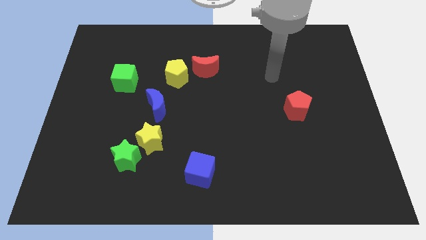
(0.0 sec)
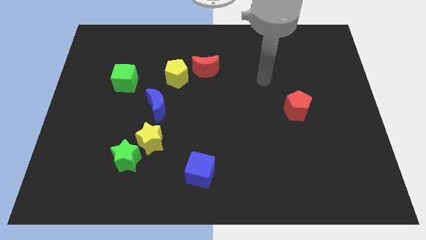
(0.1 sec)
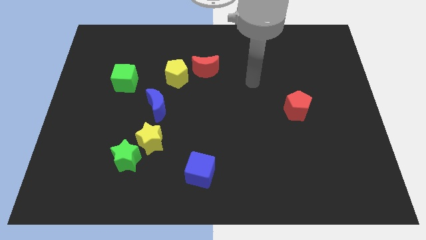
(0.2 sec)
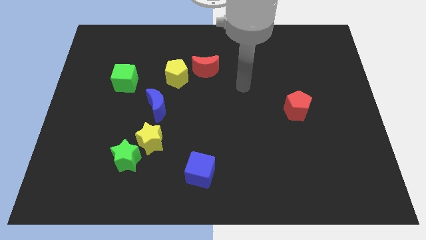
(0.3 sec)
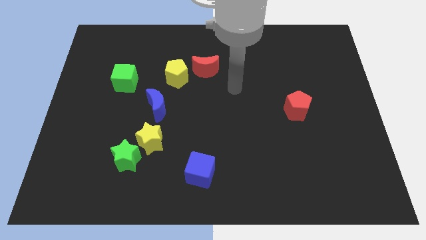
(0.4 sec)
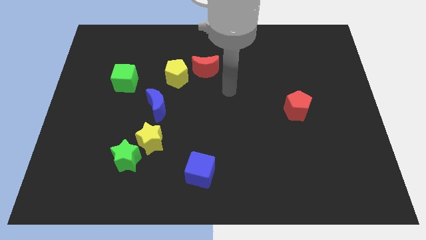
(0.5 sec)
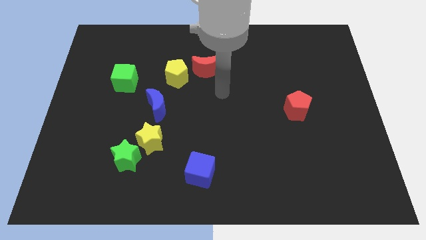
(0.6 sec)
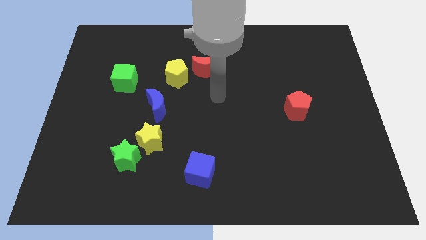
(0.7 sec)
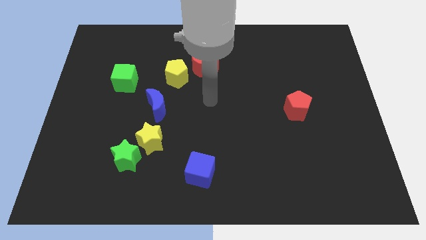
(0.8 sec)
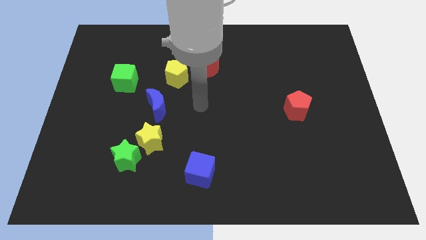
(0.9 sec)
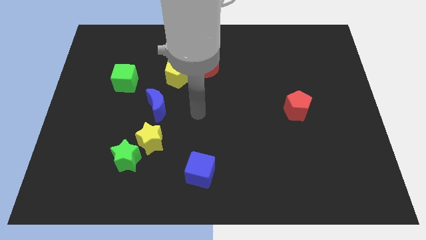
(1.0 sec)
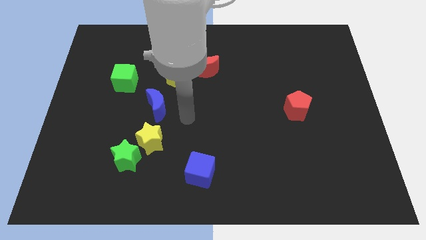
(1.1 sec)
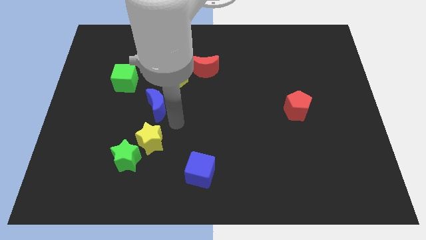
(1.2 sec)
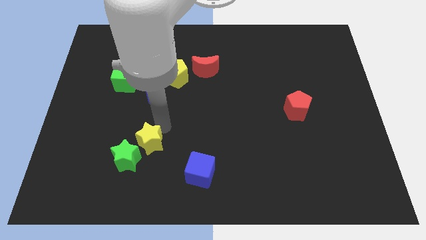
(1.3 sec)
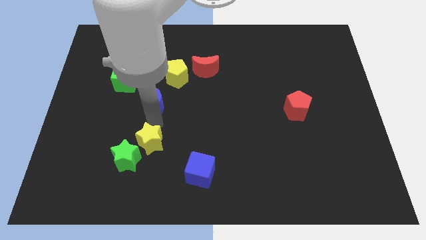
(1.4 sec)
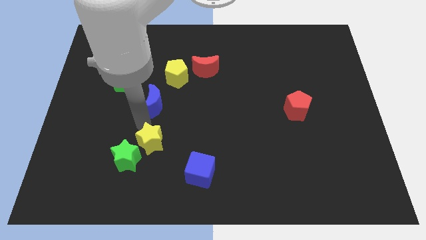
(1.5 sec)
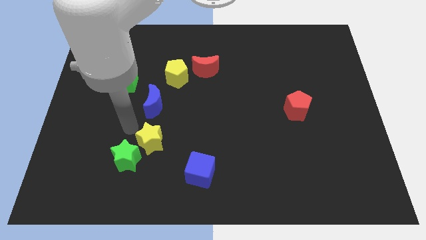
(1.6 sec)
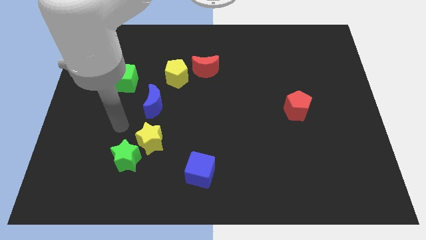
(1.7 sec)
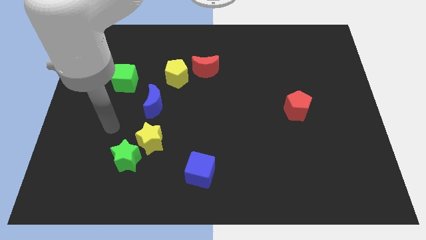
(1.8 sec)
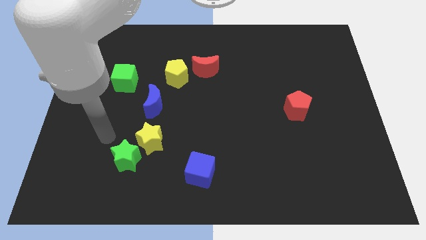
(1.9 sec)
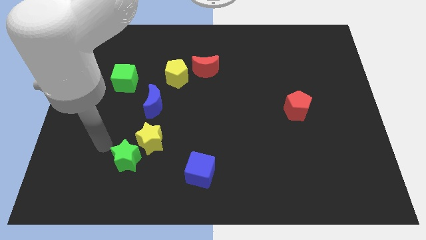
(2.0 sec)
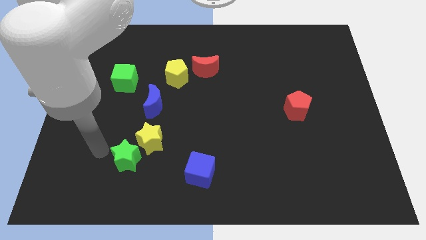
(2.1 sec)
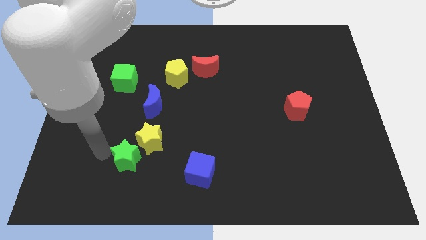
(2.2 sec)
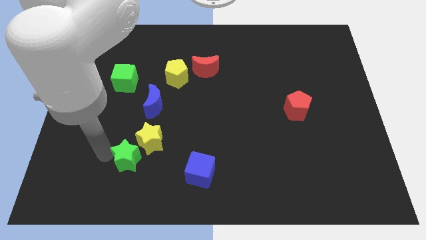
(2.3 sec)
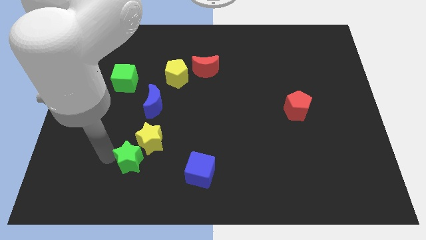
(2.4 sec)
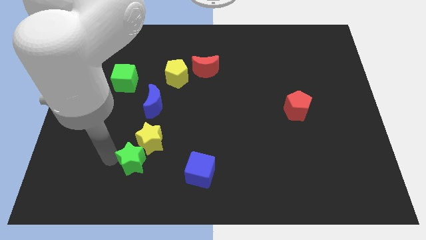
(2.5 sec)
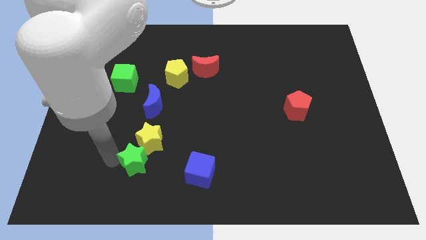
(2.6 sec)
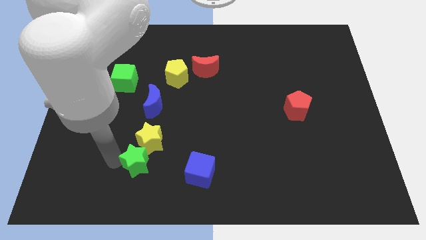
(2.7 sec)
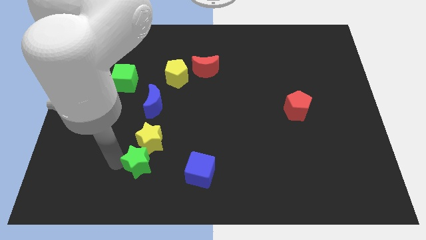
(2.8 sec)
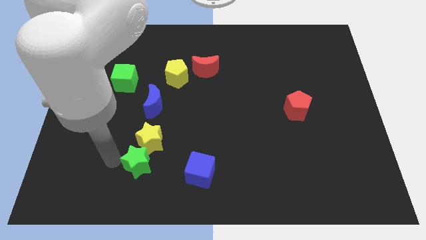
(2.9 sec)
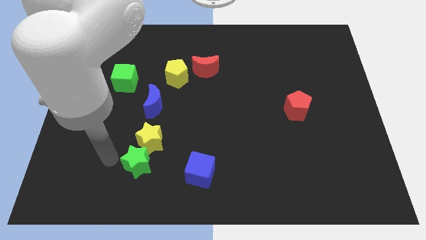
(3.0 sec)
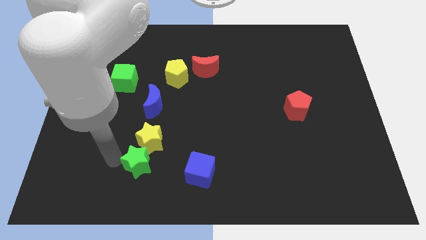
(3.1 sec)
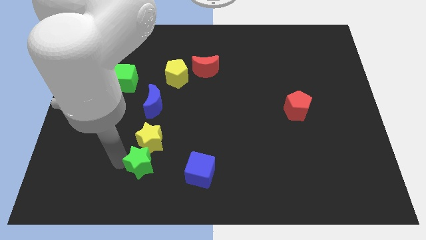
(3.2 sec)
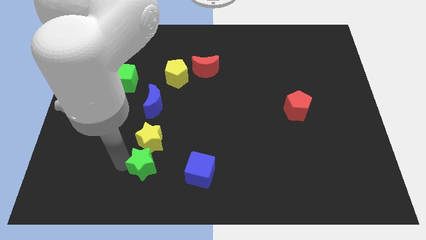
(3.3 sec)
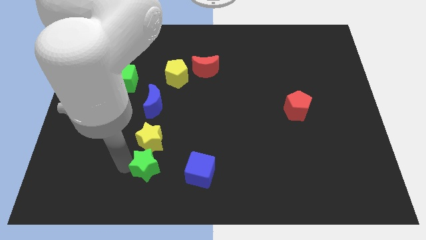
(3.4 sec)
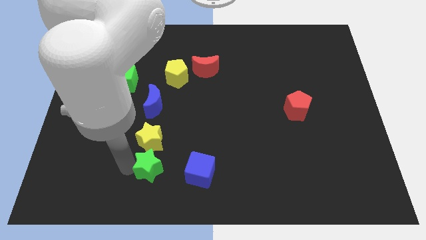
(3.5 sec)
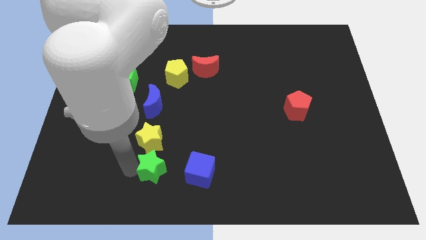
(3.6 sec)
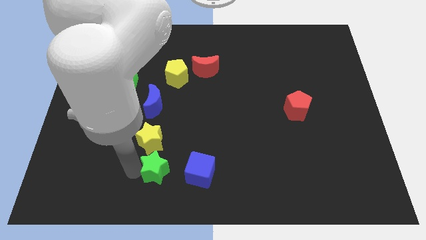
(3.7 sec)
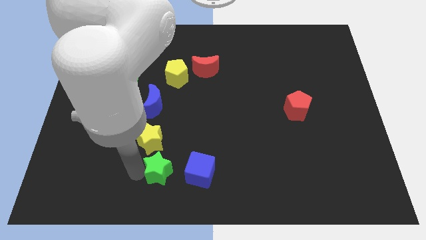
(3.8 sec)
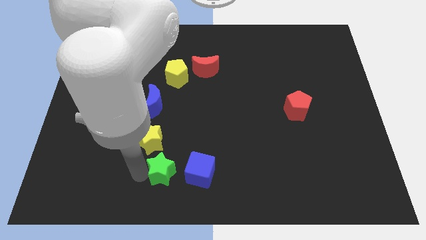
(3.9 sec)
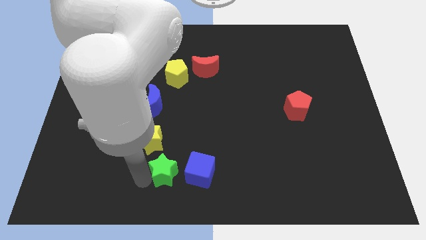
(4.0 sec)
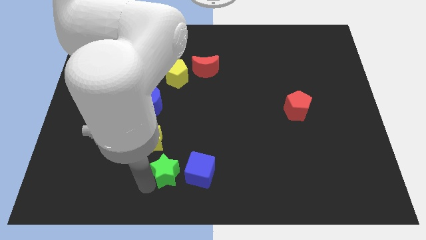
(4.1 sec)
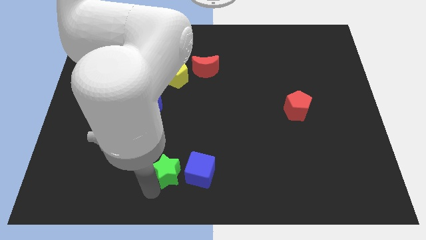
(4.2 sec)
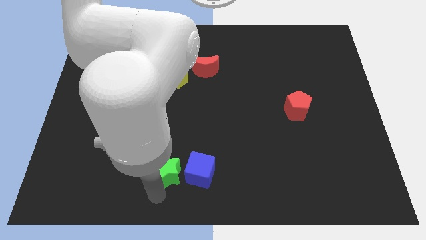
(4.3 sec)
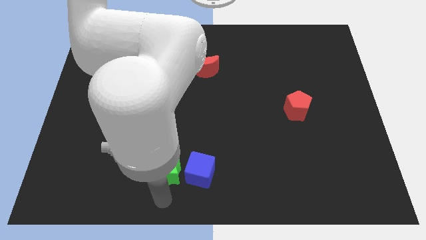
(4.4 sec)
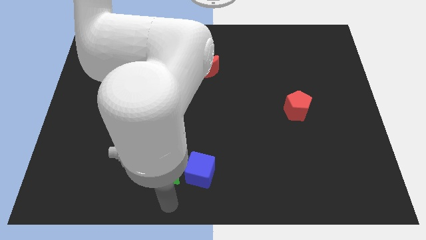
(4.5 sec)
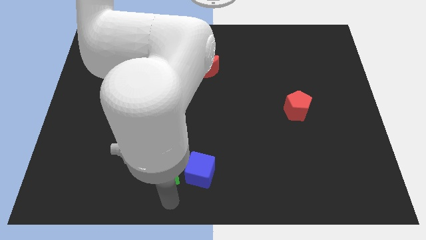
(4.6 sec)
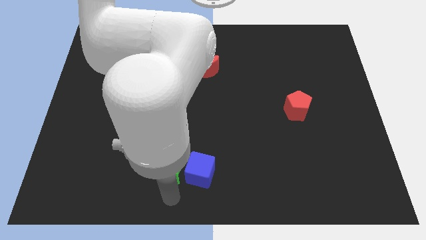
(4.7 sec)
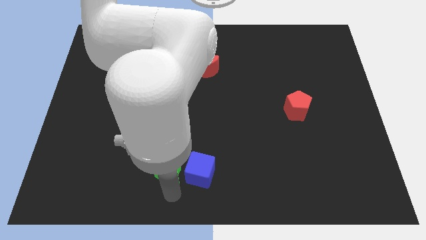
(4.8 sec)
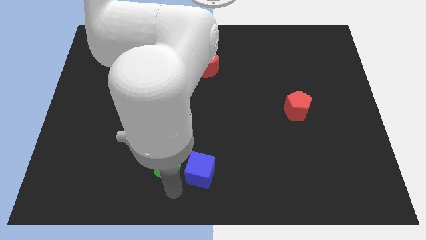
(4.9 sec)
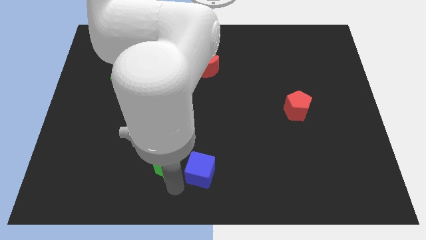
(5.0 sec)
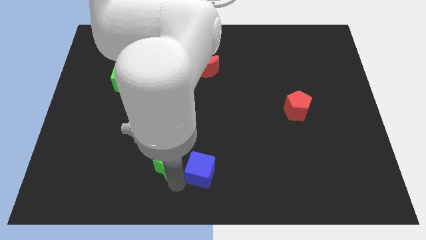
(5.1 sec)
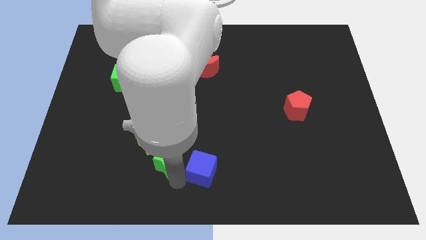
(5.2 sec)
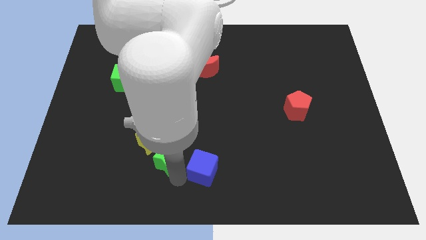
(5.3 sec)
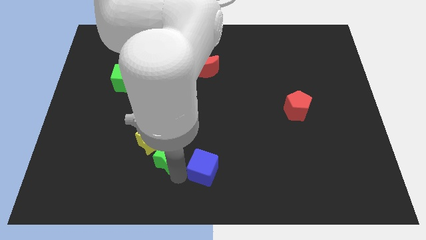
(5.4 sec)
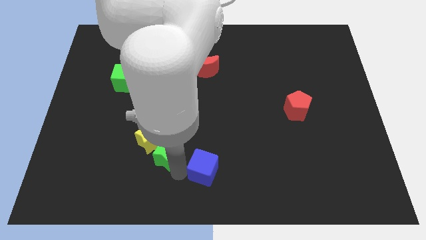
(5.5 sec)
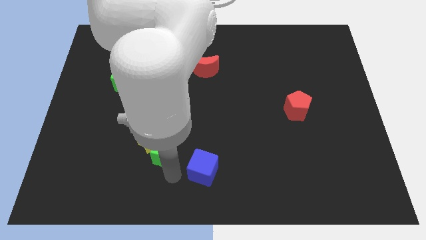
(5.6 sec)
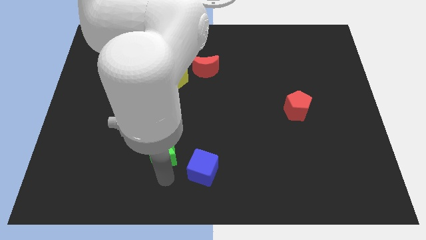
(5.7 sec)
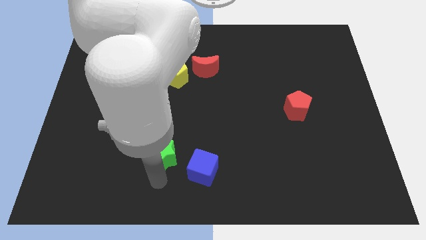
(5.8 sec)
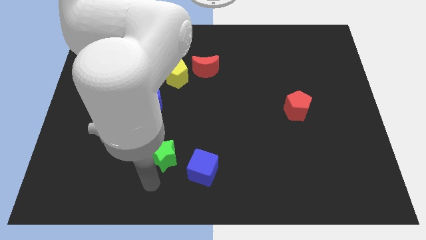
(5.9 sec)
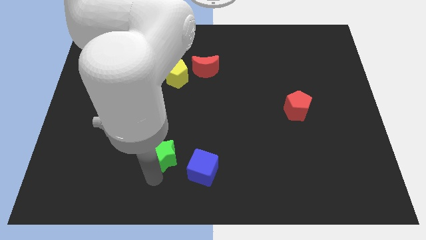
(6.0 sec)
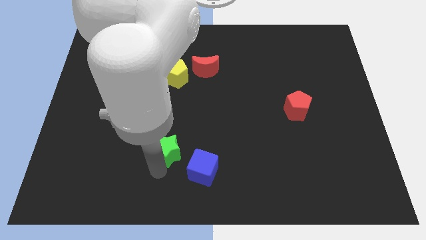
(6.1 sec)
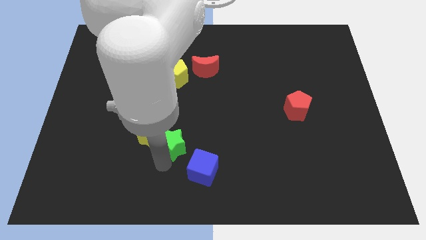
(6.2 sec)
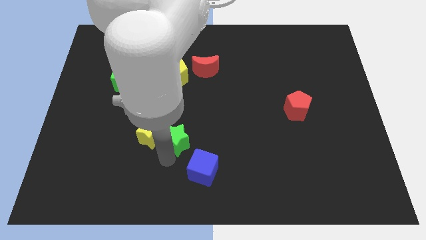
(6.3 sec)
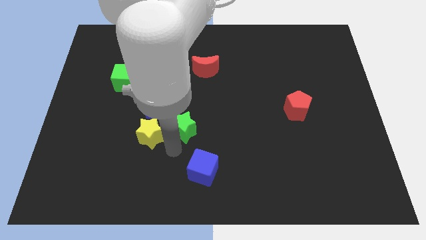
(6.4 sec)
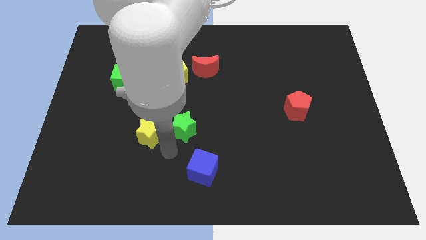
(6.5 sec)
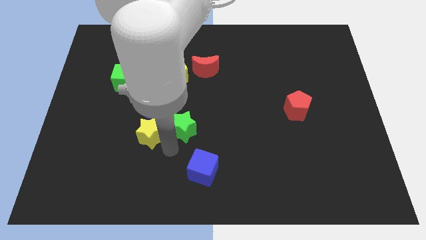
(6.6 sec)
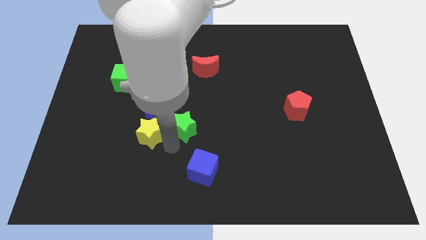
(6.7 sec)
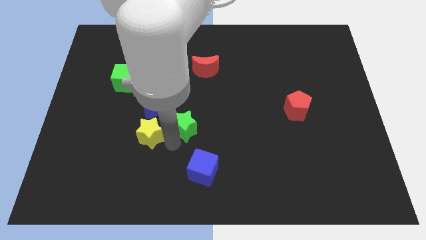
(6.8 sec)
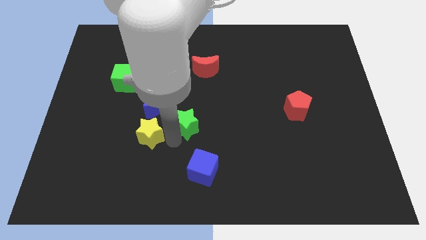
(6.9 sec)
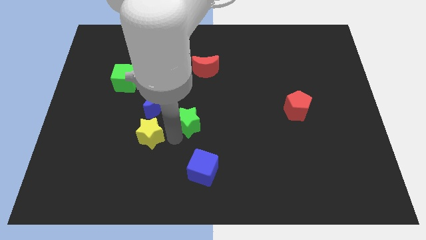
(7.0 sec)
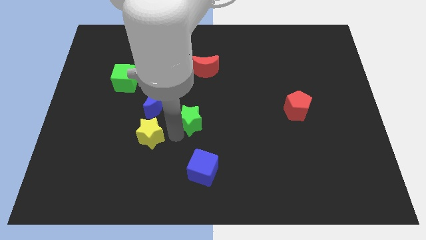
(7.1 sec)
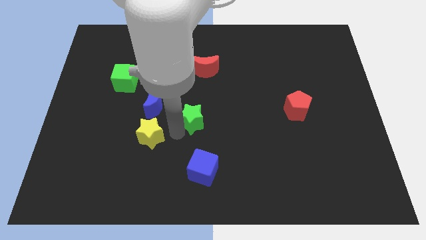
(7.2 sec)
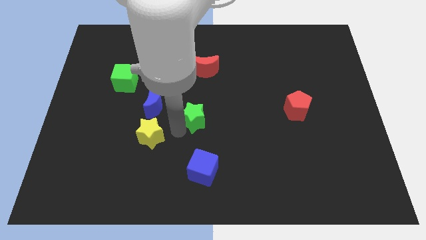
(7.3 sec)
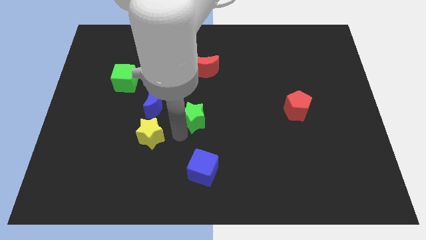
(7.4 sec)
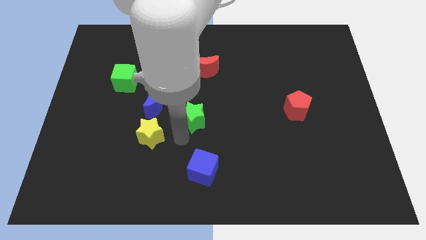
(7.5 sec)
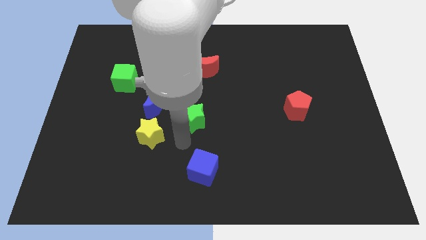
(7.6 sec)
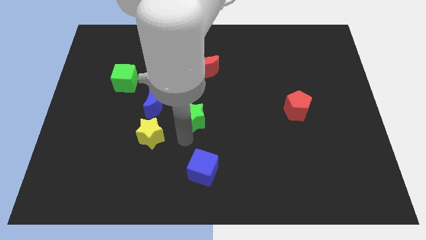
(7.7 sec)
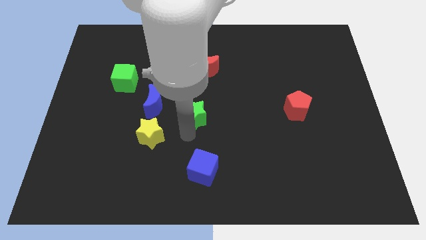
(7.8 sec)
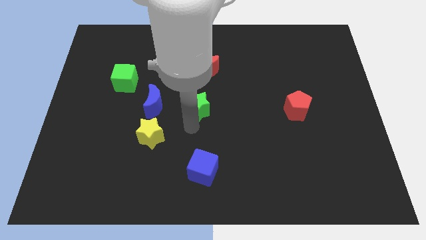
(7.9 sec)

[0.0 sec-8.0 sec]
slide the green star upwards and to the right diagonally

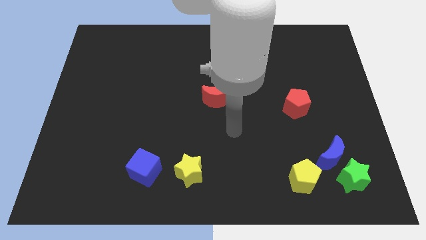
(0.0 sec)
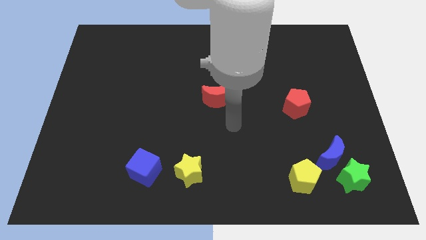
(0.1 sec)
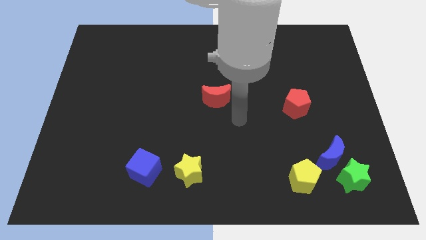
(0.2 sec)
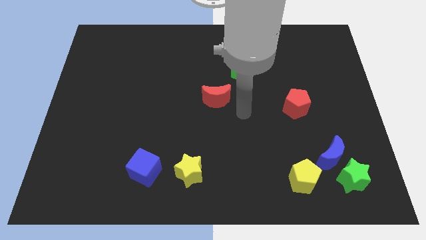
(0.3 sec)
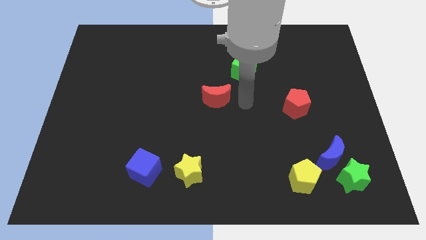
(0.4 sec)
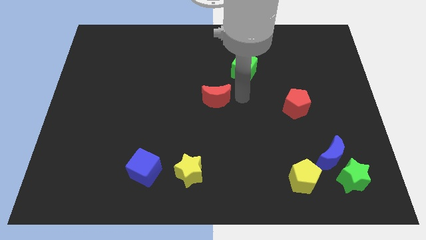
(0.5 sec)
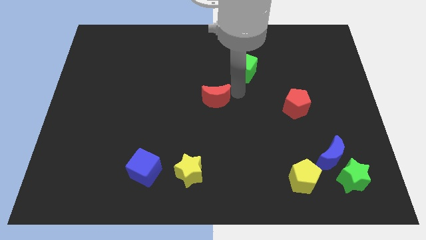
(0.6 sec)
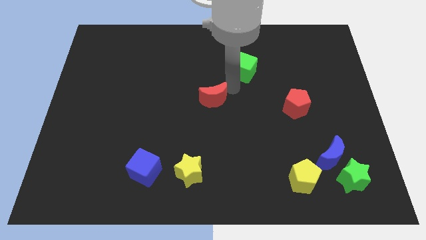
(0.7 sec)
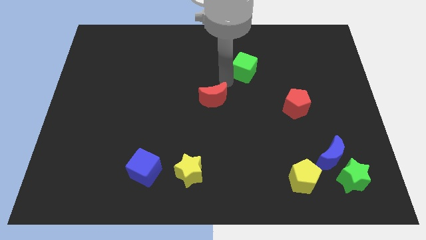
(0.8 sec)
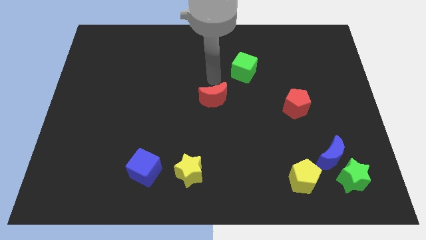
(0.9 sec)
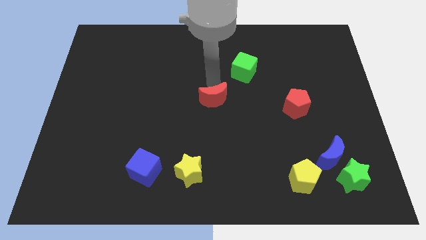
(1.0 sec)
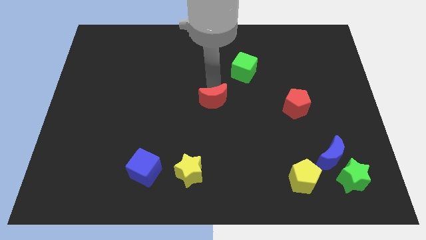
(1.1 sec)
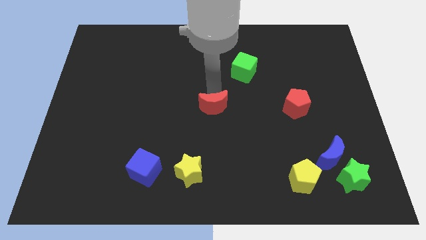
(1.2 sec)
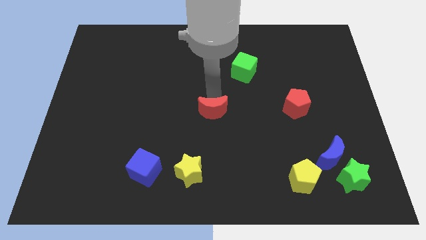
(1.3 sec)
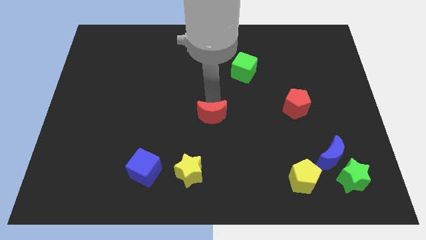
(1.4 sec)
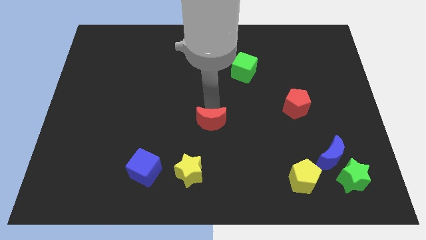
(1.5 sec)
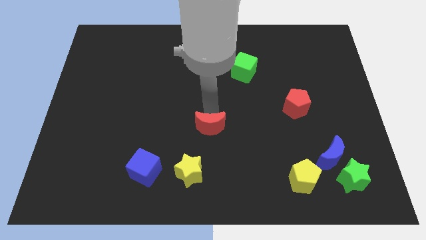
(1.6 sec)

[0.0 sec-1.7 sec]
move the red moon downwards a little
